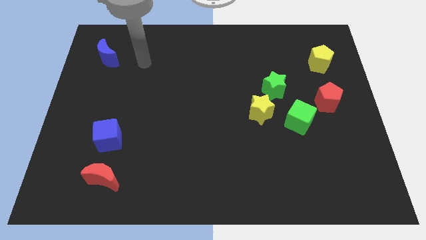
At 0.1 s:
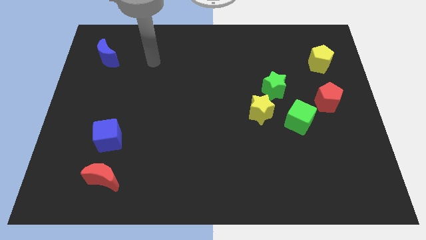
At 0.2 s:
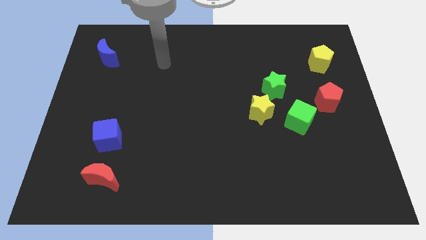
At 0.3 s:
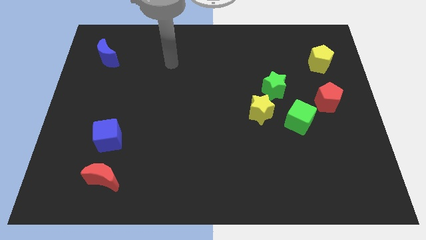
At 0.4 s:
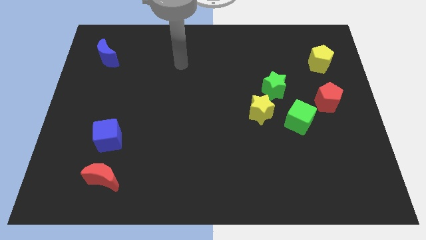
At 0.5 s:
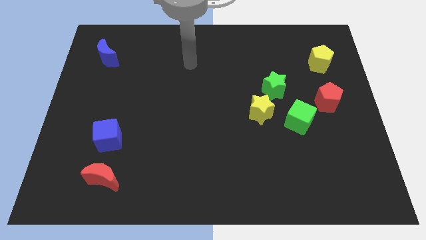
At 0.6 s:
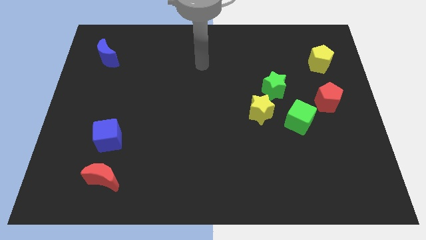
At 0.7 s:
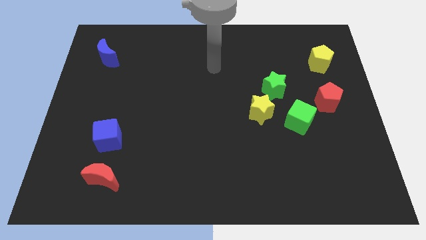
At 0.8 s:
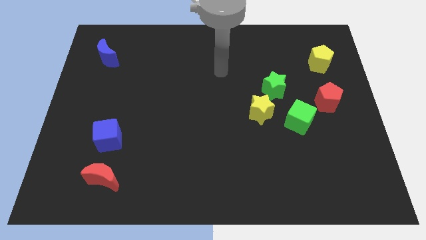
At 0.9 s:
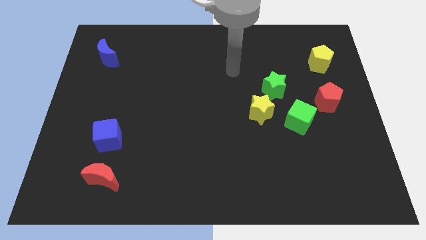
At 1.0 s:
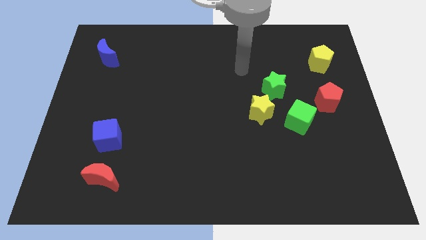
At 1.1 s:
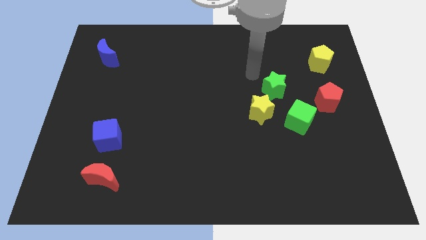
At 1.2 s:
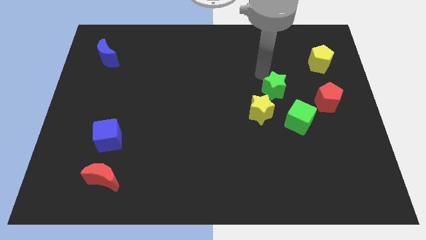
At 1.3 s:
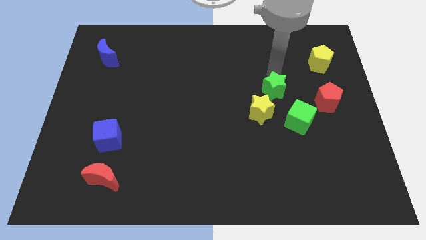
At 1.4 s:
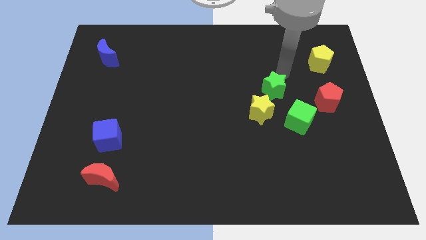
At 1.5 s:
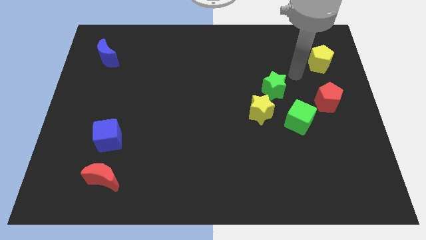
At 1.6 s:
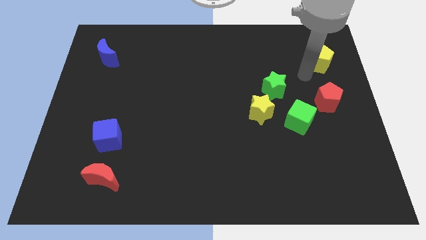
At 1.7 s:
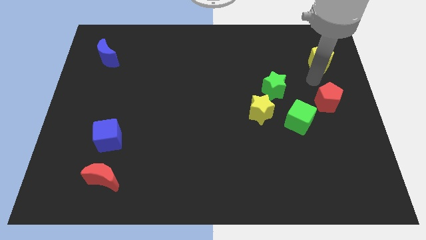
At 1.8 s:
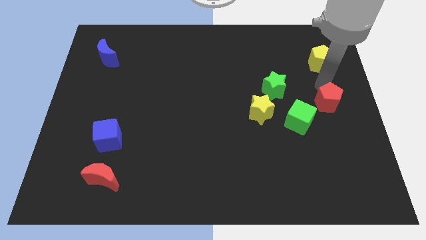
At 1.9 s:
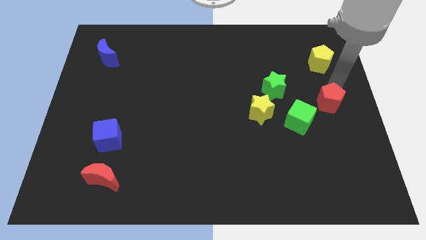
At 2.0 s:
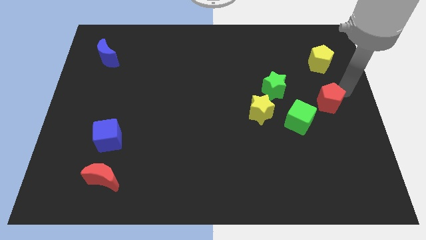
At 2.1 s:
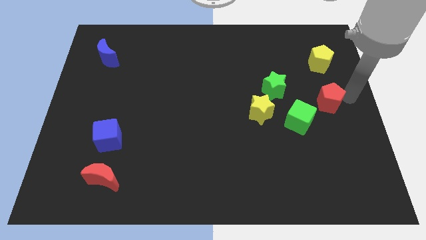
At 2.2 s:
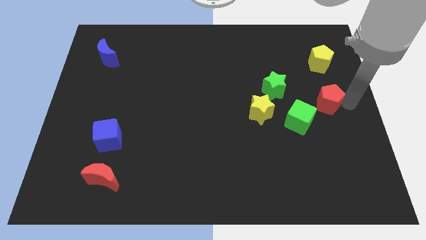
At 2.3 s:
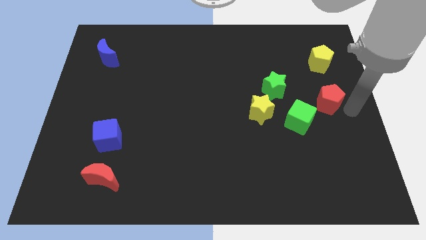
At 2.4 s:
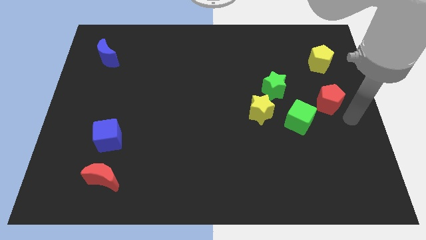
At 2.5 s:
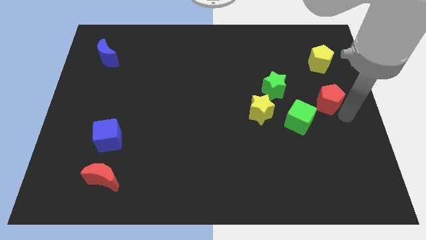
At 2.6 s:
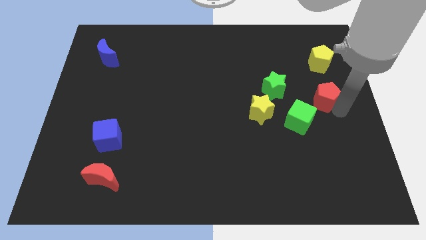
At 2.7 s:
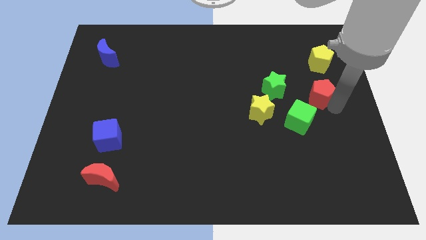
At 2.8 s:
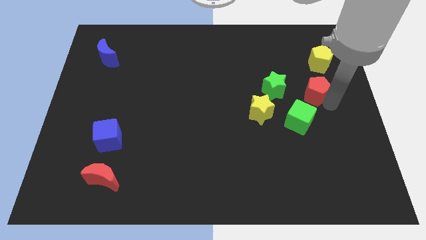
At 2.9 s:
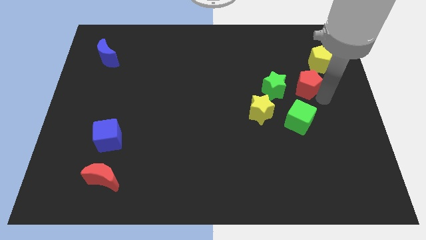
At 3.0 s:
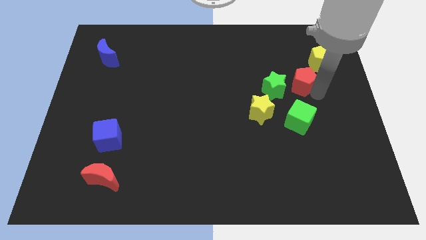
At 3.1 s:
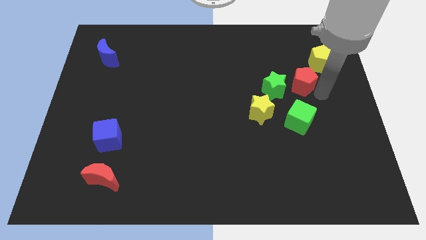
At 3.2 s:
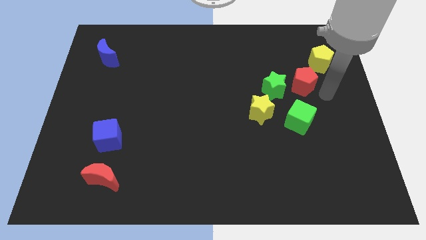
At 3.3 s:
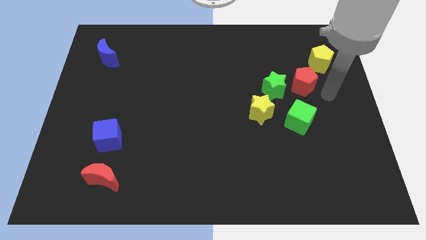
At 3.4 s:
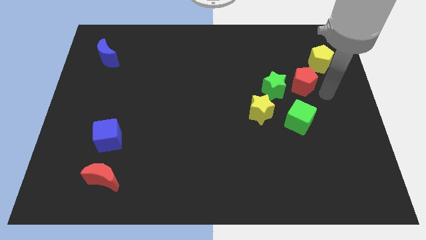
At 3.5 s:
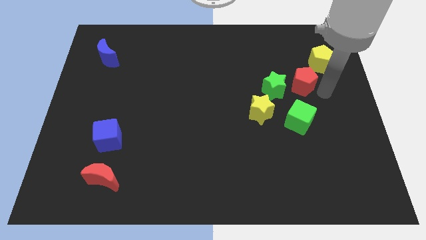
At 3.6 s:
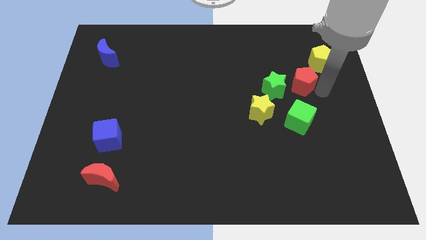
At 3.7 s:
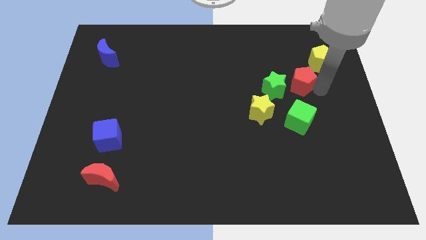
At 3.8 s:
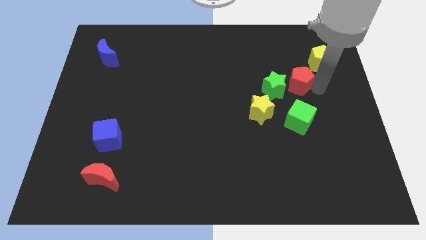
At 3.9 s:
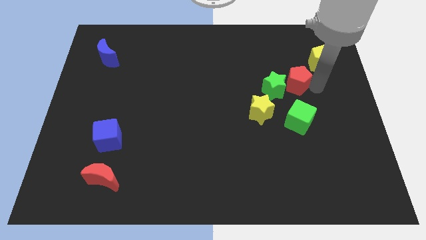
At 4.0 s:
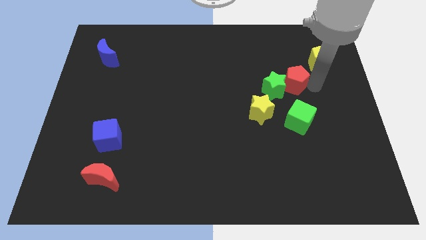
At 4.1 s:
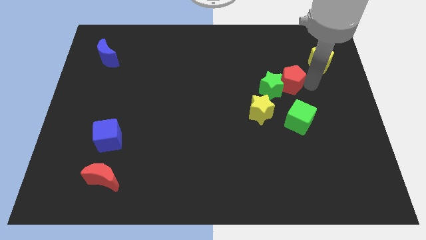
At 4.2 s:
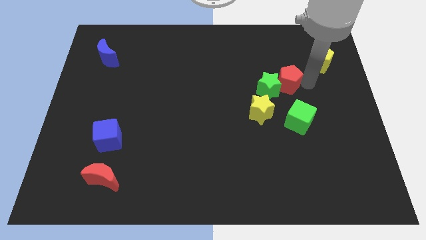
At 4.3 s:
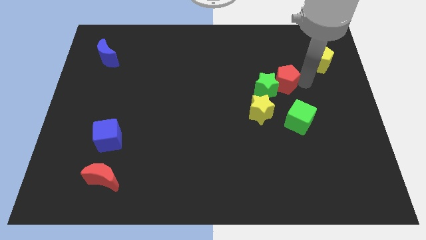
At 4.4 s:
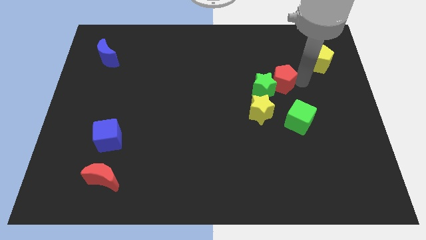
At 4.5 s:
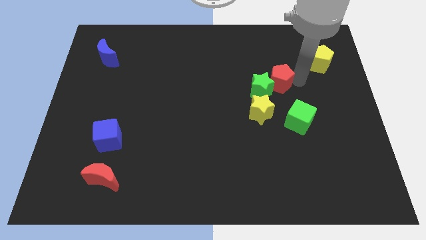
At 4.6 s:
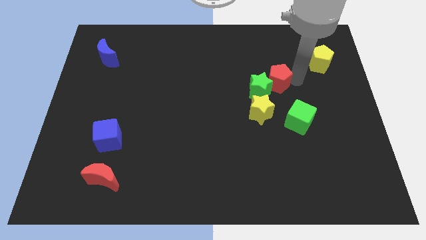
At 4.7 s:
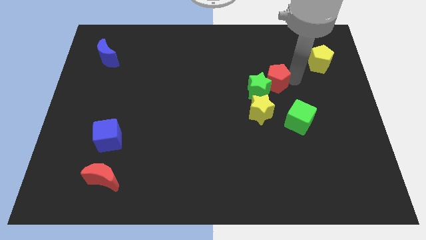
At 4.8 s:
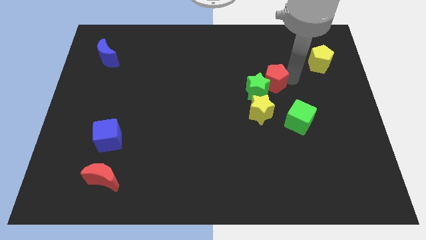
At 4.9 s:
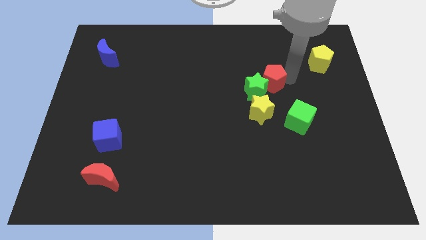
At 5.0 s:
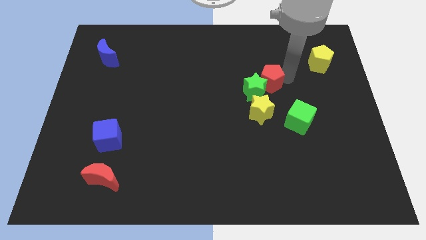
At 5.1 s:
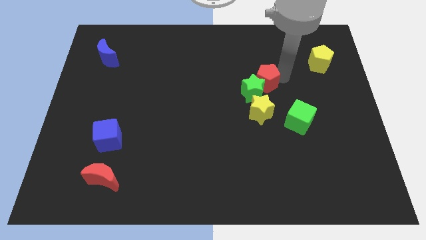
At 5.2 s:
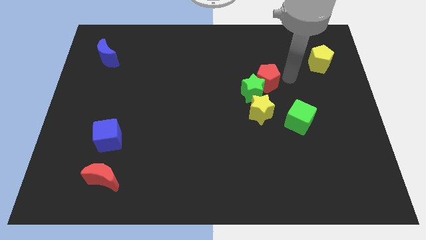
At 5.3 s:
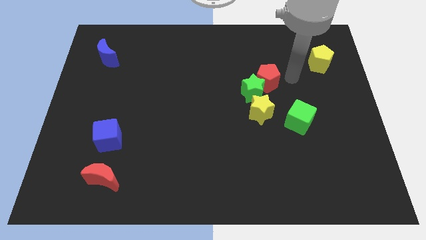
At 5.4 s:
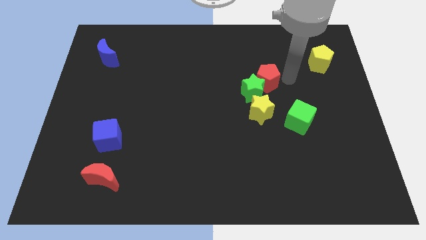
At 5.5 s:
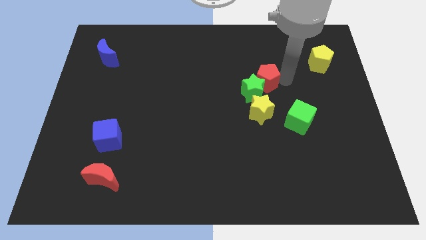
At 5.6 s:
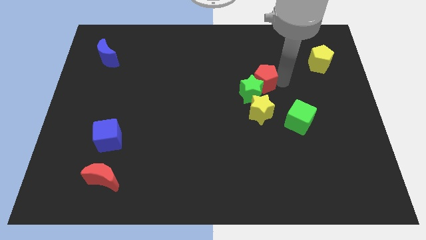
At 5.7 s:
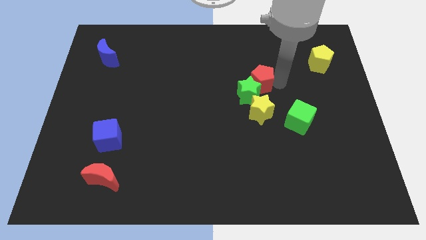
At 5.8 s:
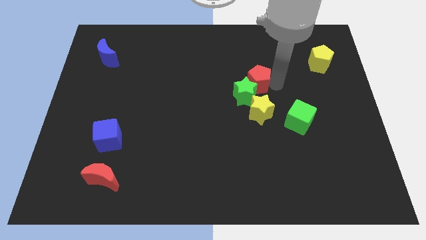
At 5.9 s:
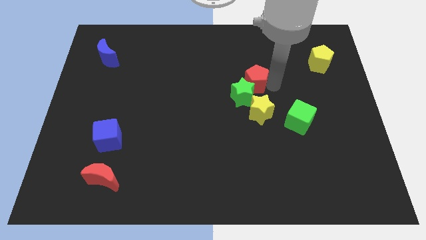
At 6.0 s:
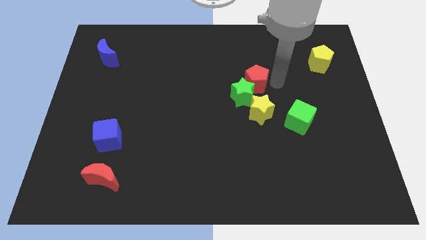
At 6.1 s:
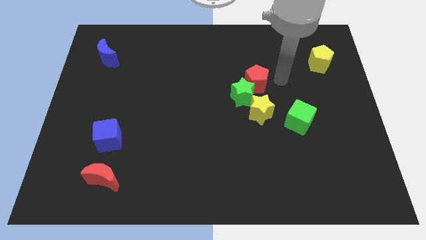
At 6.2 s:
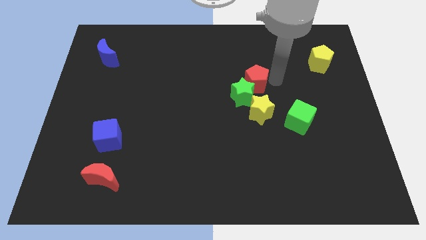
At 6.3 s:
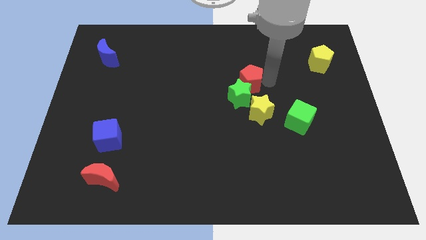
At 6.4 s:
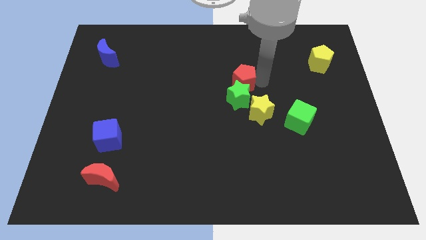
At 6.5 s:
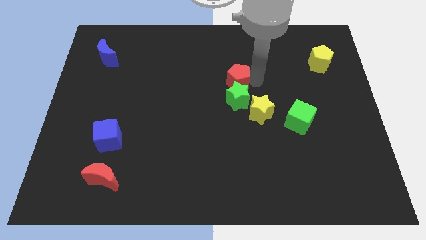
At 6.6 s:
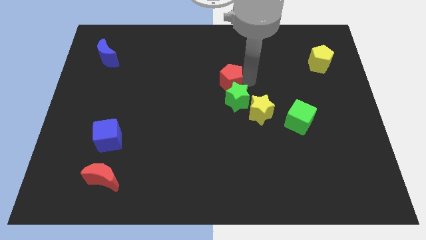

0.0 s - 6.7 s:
push the red pentagon left

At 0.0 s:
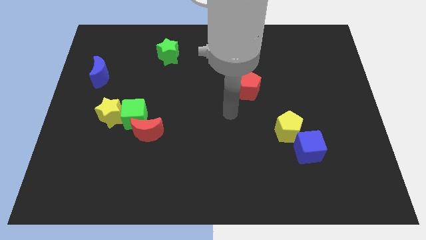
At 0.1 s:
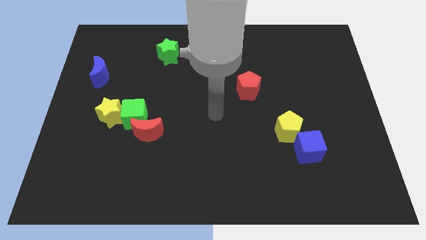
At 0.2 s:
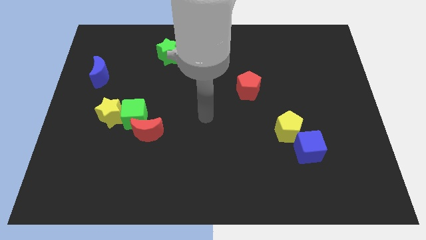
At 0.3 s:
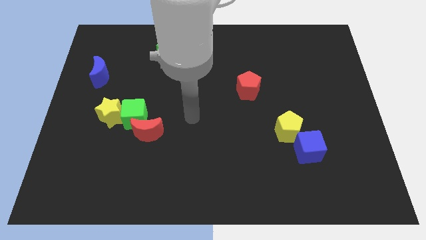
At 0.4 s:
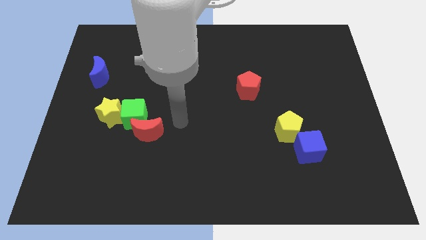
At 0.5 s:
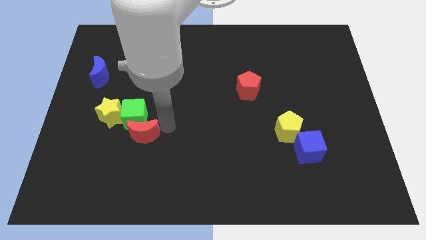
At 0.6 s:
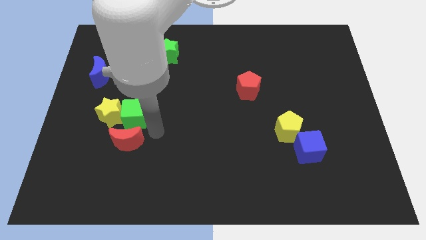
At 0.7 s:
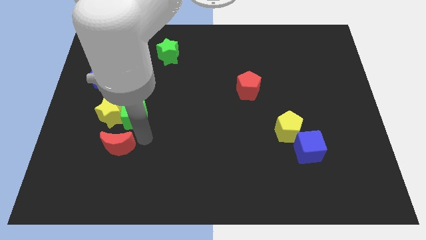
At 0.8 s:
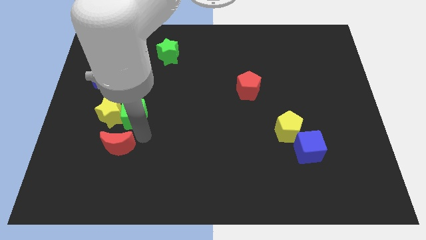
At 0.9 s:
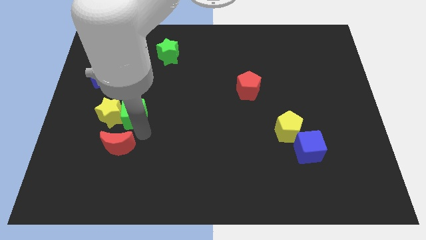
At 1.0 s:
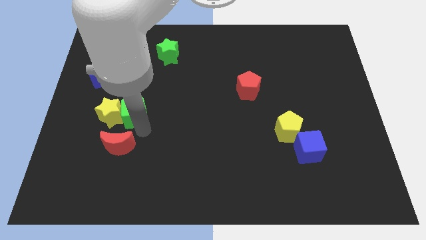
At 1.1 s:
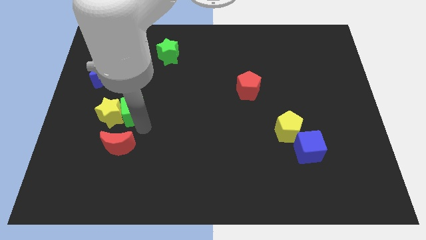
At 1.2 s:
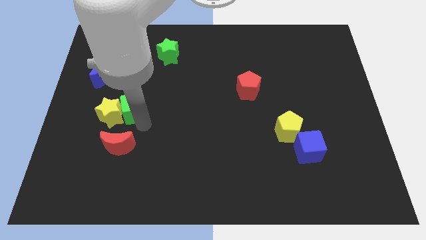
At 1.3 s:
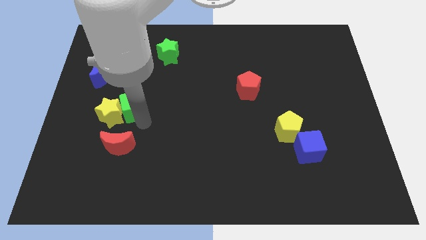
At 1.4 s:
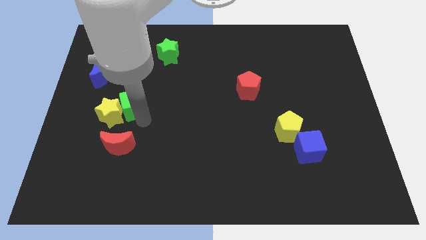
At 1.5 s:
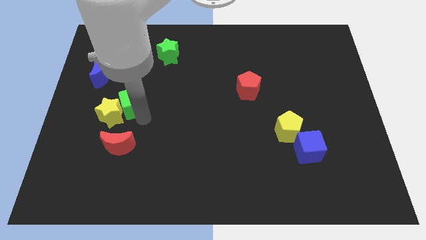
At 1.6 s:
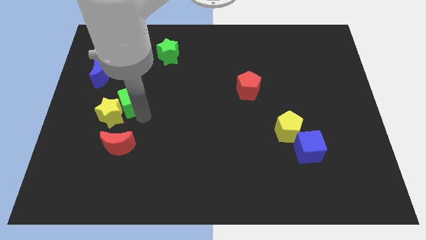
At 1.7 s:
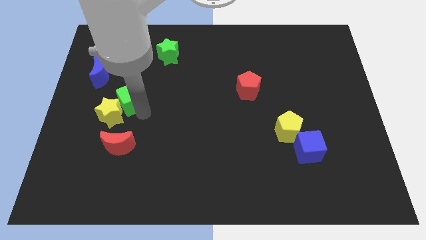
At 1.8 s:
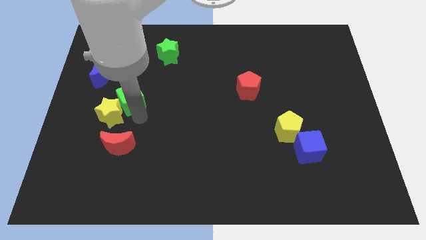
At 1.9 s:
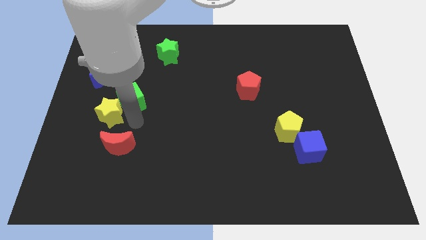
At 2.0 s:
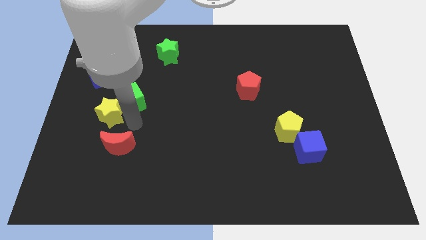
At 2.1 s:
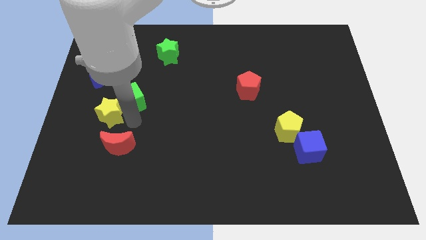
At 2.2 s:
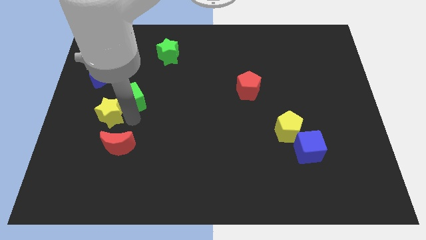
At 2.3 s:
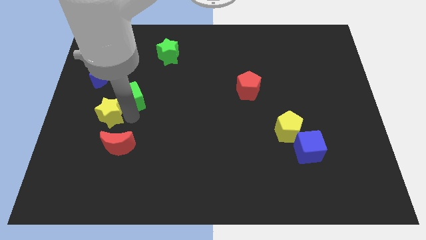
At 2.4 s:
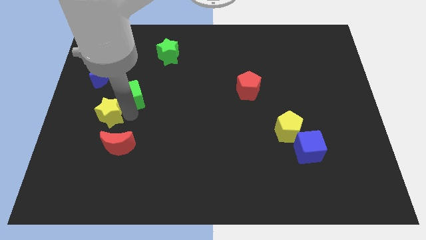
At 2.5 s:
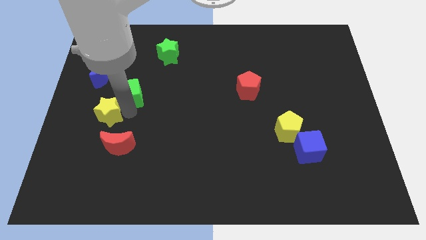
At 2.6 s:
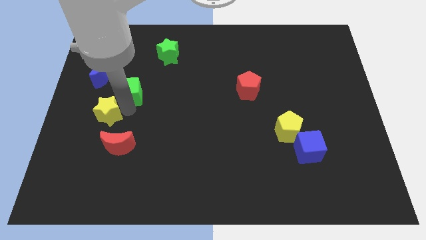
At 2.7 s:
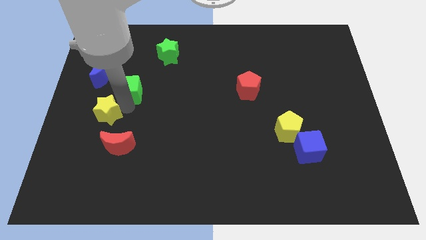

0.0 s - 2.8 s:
slightly push the green cube up
